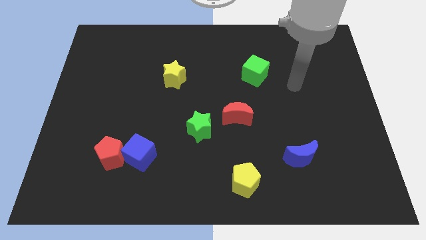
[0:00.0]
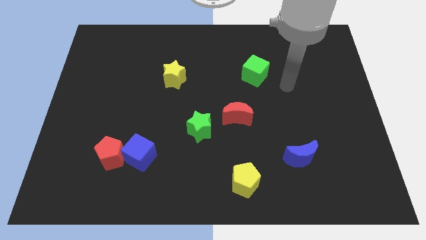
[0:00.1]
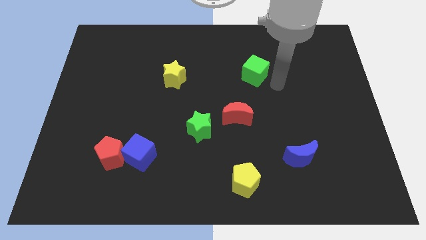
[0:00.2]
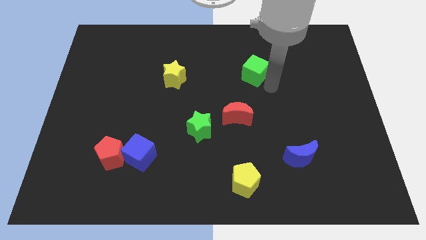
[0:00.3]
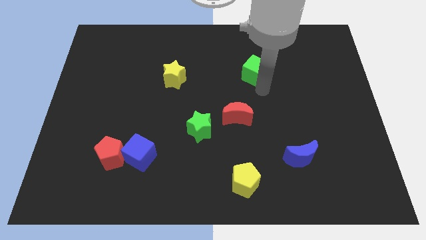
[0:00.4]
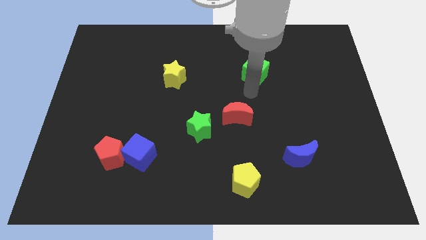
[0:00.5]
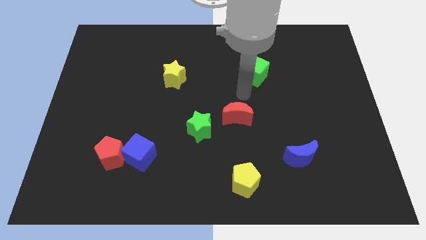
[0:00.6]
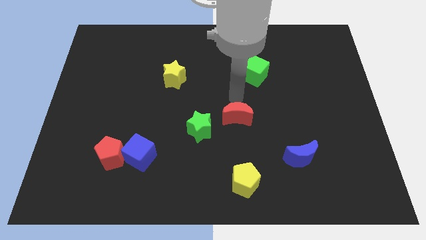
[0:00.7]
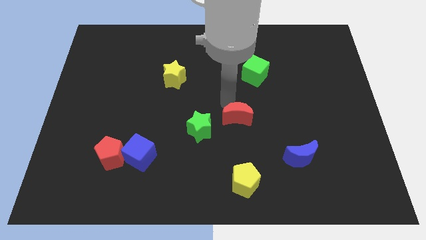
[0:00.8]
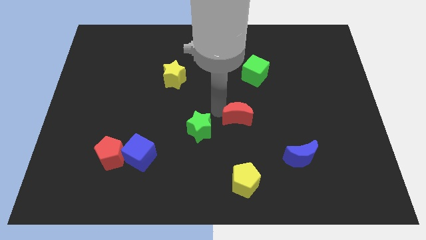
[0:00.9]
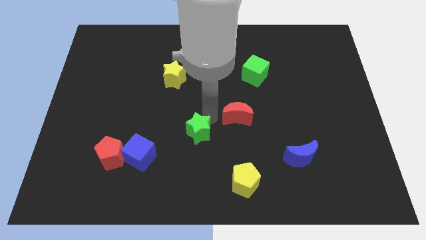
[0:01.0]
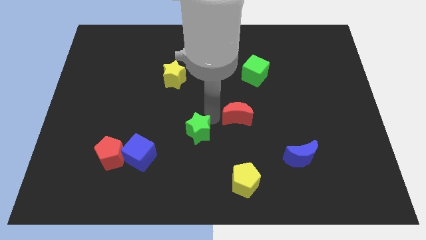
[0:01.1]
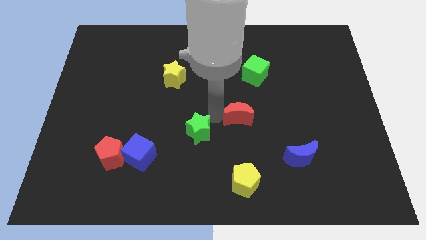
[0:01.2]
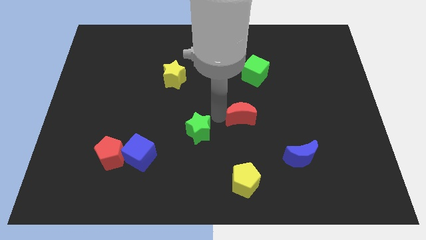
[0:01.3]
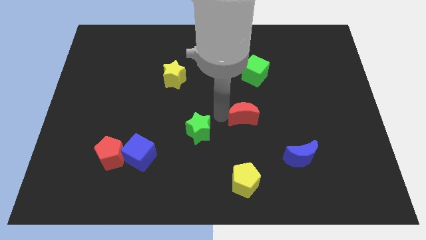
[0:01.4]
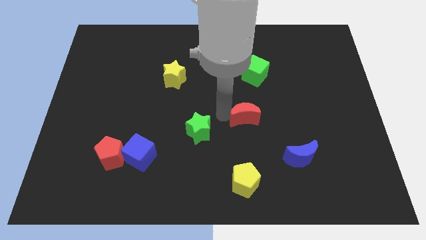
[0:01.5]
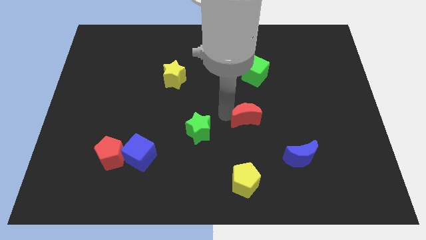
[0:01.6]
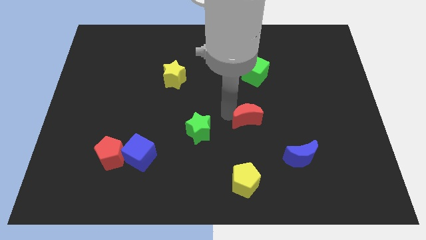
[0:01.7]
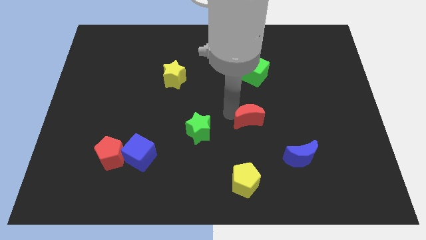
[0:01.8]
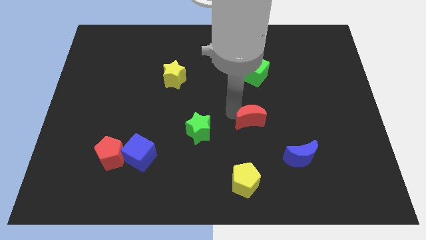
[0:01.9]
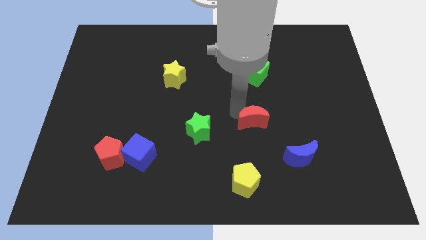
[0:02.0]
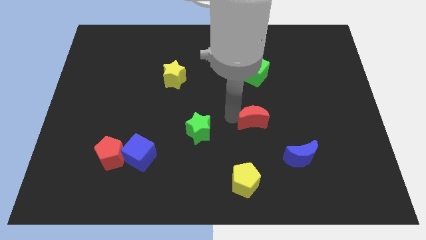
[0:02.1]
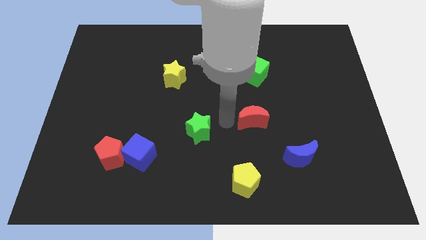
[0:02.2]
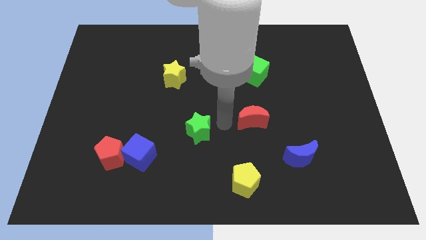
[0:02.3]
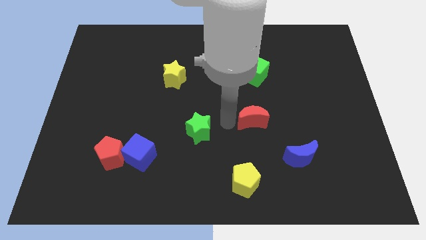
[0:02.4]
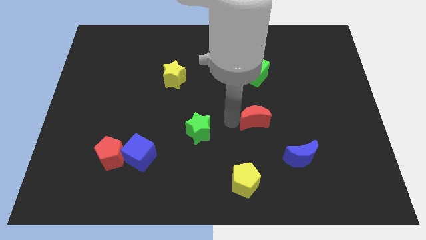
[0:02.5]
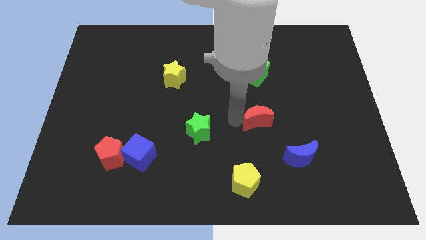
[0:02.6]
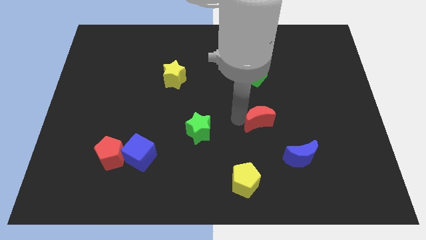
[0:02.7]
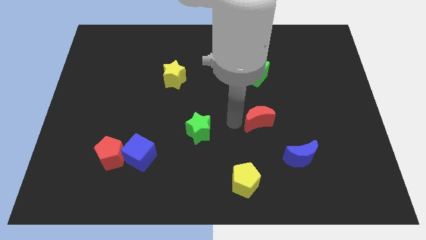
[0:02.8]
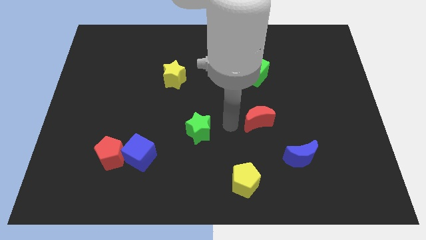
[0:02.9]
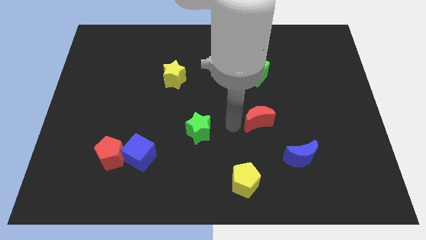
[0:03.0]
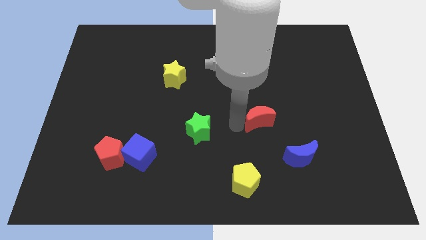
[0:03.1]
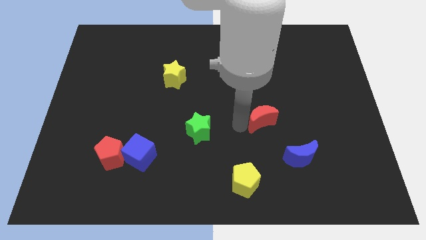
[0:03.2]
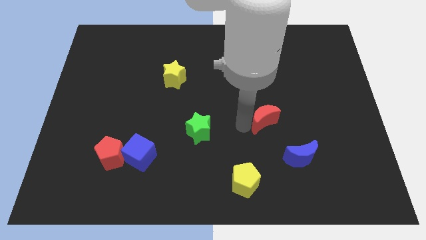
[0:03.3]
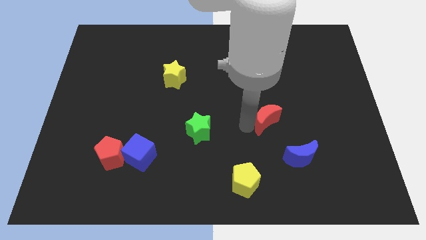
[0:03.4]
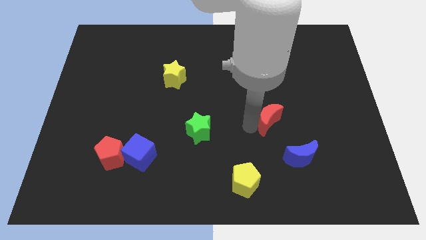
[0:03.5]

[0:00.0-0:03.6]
slide the red moon a little to the right

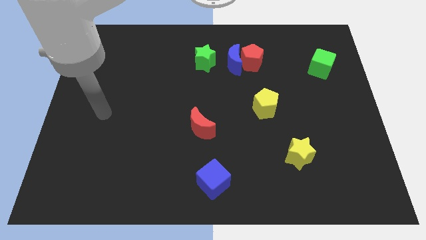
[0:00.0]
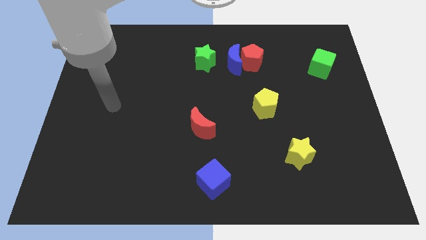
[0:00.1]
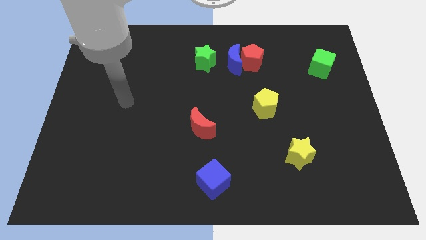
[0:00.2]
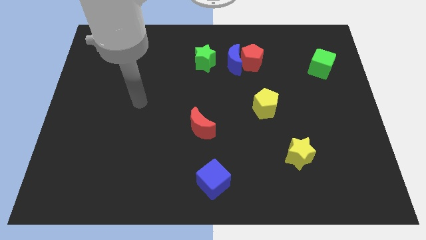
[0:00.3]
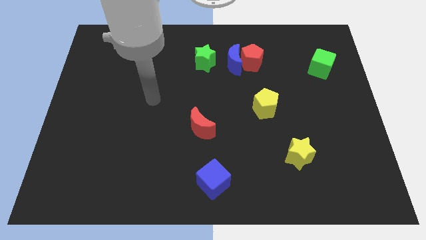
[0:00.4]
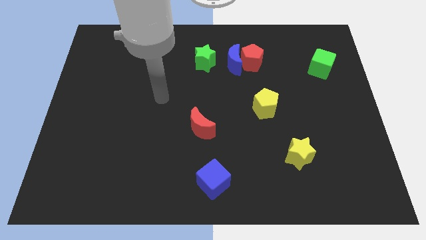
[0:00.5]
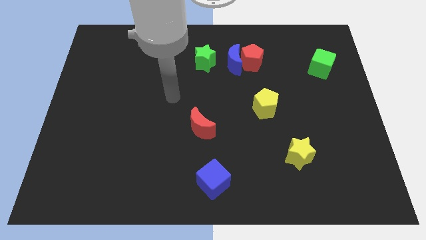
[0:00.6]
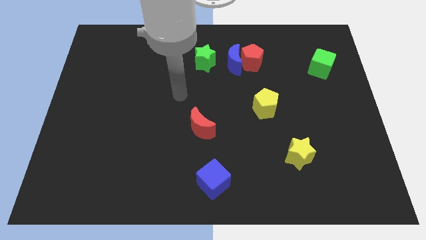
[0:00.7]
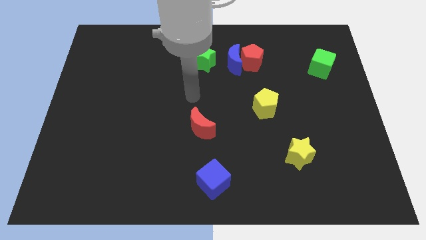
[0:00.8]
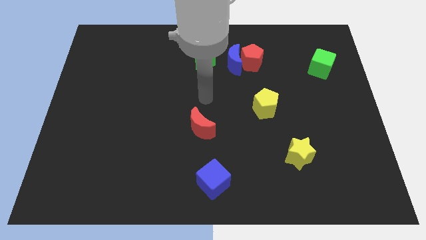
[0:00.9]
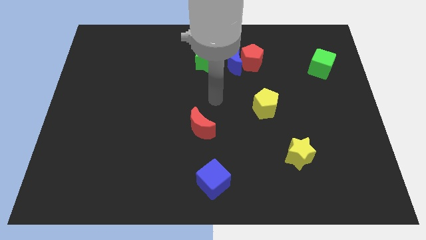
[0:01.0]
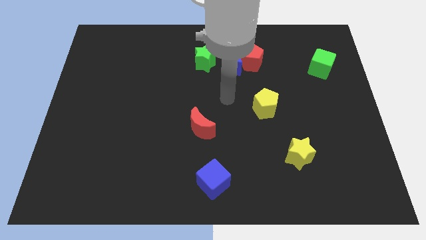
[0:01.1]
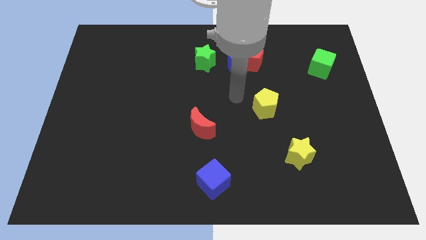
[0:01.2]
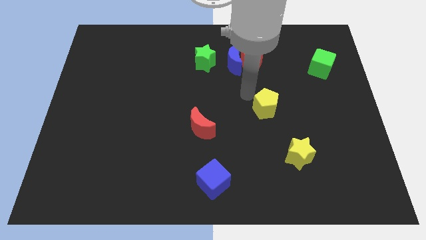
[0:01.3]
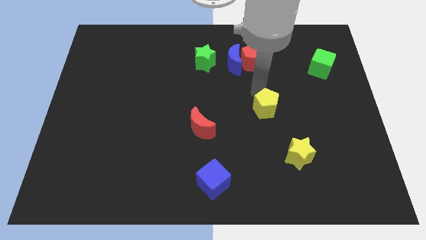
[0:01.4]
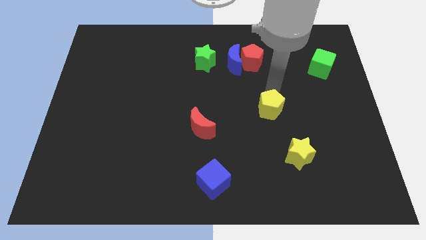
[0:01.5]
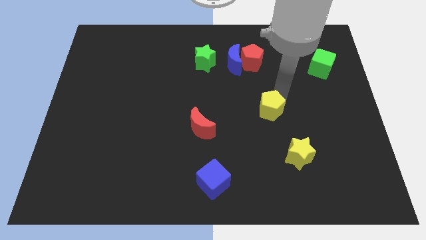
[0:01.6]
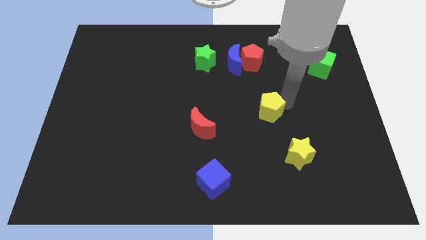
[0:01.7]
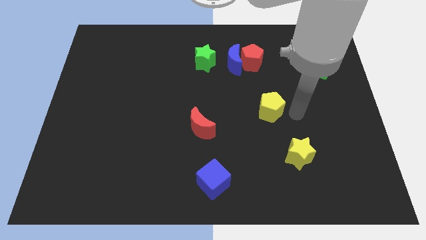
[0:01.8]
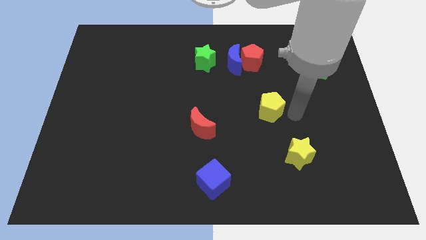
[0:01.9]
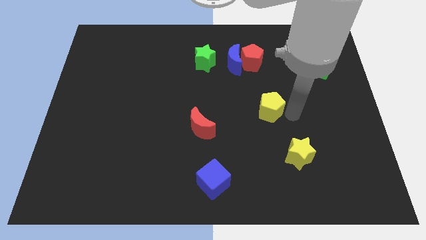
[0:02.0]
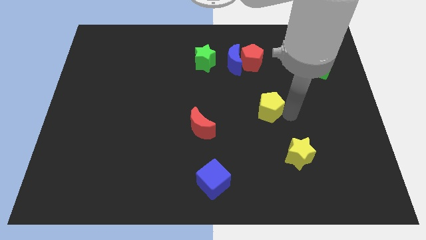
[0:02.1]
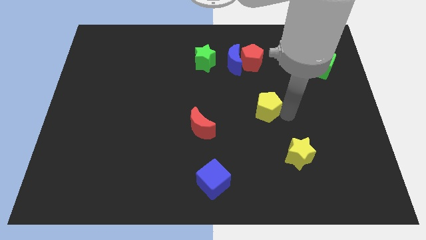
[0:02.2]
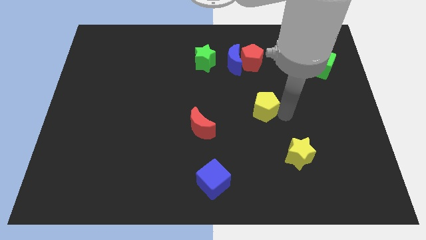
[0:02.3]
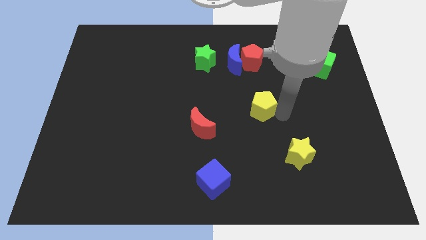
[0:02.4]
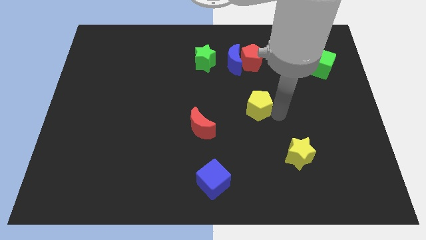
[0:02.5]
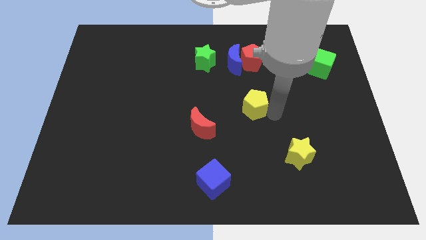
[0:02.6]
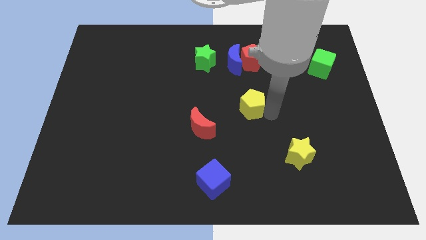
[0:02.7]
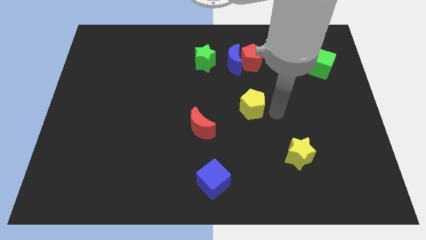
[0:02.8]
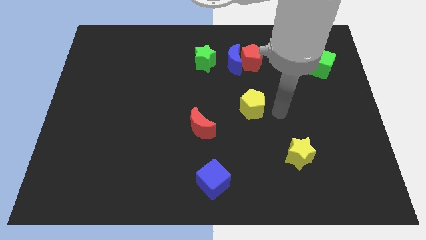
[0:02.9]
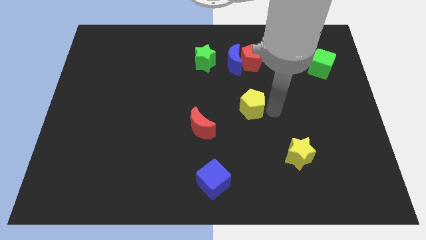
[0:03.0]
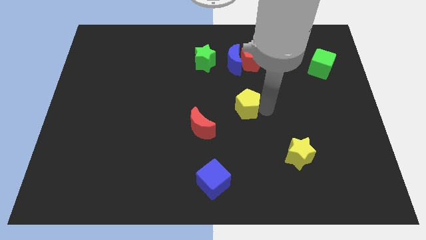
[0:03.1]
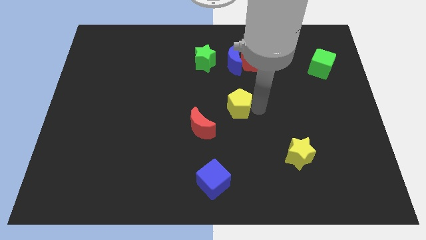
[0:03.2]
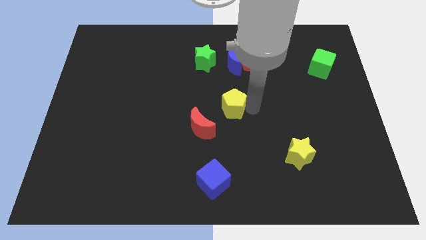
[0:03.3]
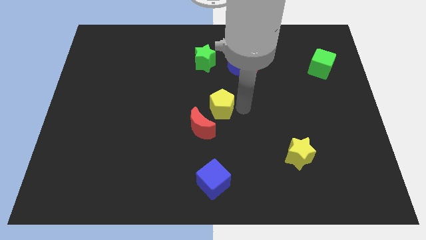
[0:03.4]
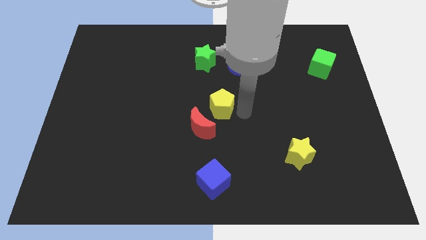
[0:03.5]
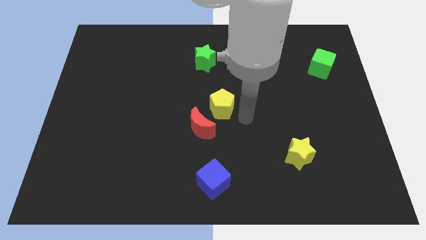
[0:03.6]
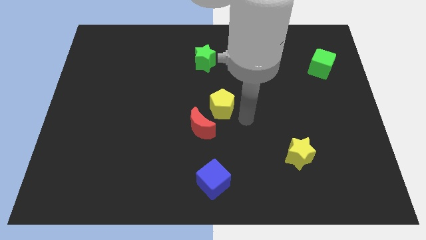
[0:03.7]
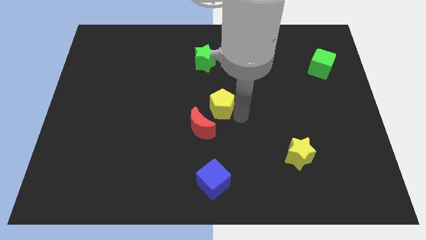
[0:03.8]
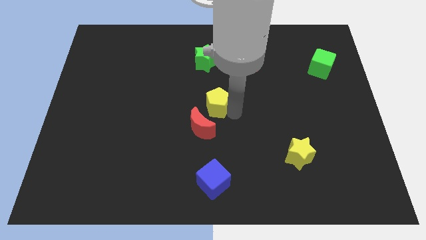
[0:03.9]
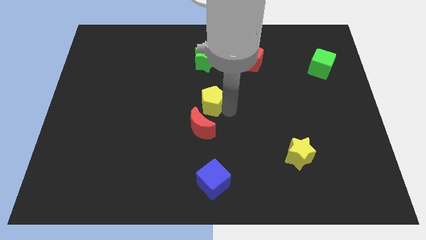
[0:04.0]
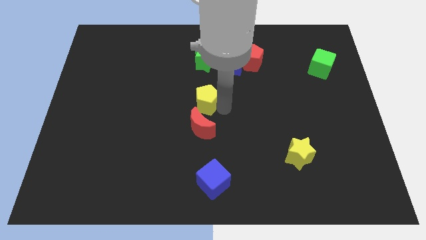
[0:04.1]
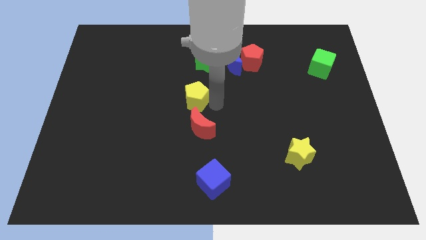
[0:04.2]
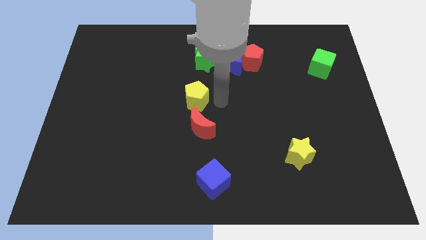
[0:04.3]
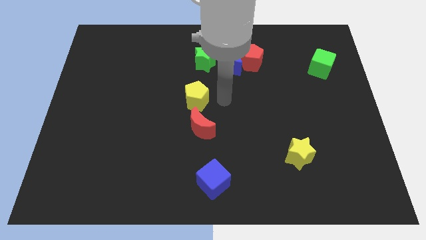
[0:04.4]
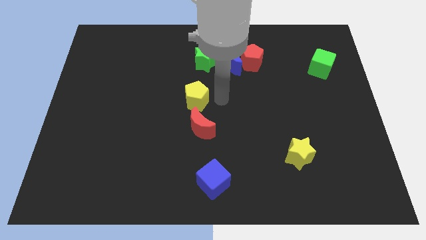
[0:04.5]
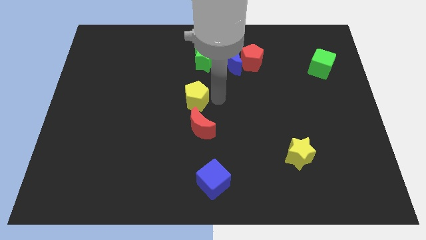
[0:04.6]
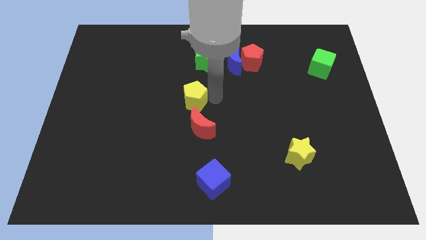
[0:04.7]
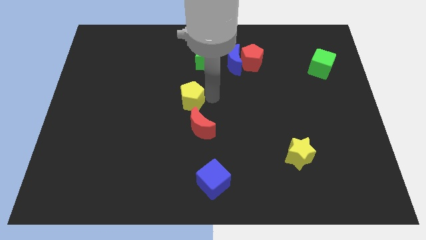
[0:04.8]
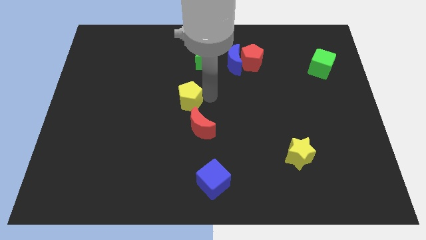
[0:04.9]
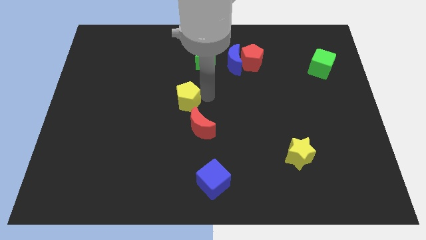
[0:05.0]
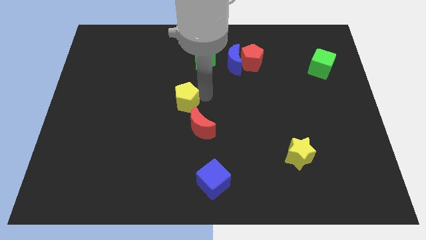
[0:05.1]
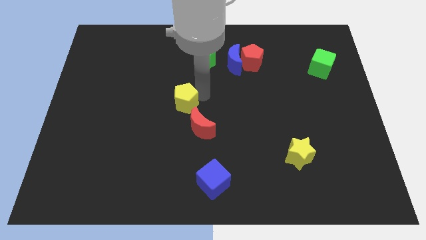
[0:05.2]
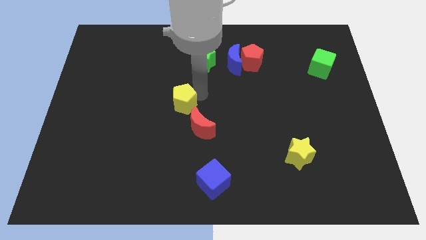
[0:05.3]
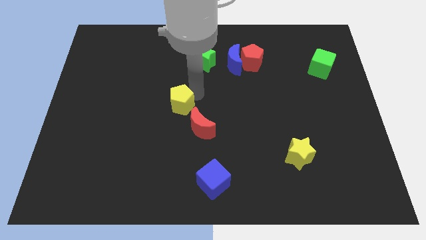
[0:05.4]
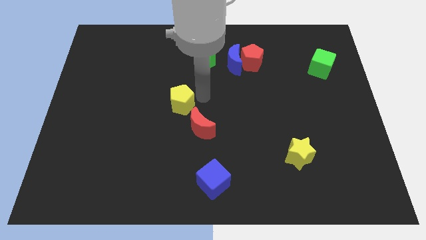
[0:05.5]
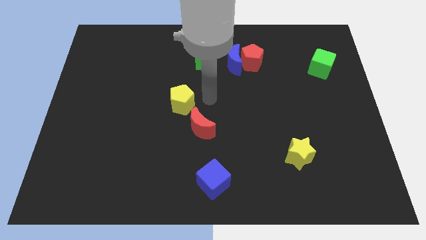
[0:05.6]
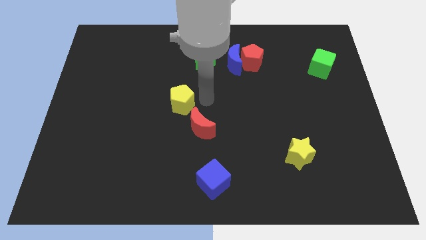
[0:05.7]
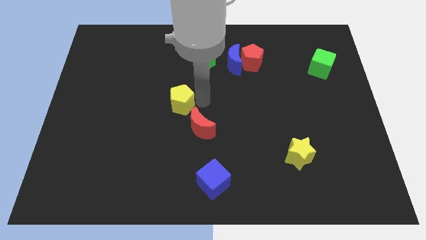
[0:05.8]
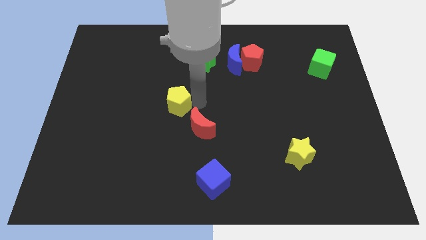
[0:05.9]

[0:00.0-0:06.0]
slide the yellow pentagon to the left
